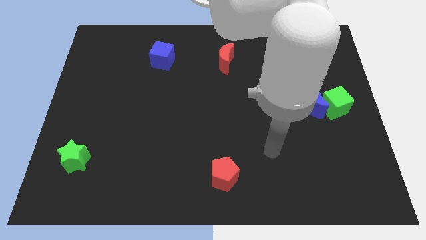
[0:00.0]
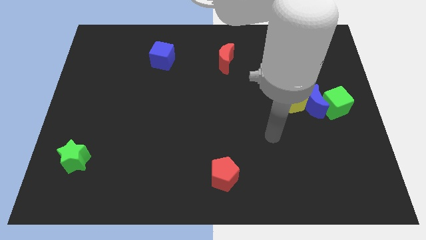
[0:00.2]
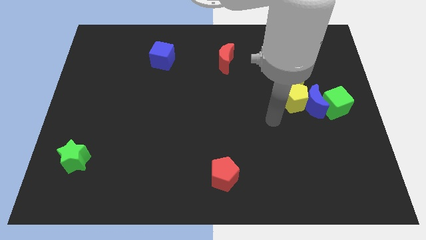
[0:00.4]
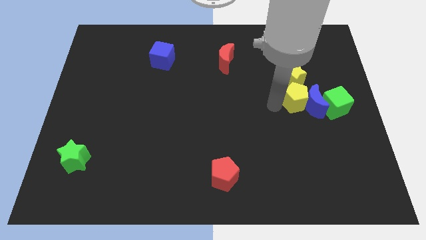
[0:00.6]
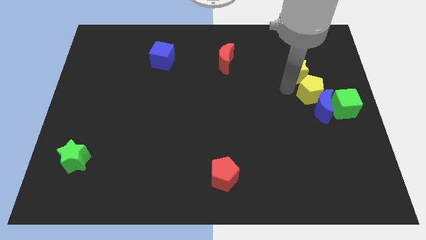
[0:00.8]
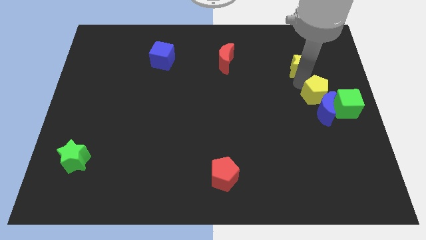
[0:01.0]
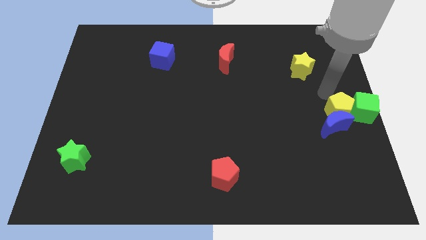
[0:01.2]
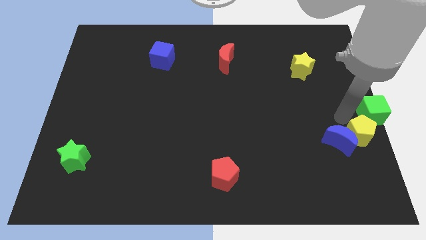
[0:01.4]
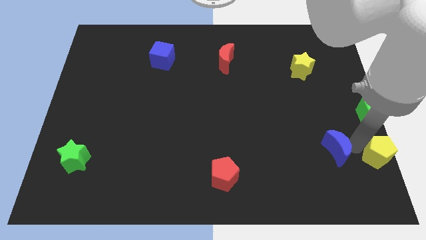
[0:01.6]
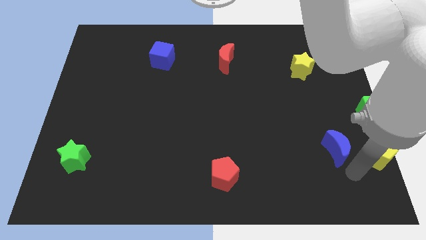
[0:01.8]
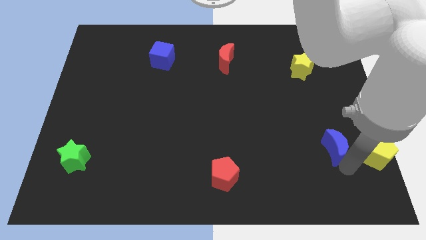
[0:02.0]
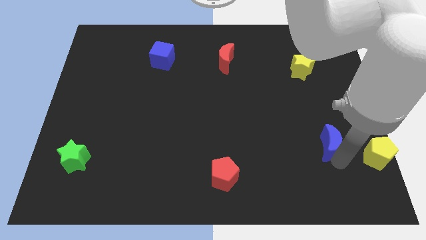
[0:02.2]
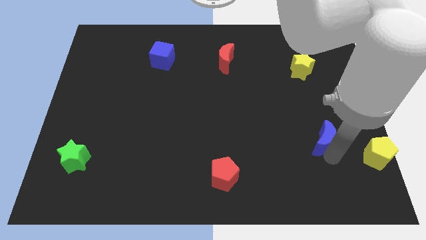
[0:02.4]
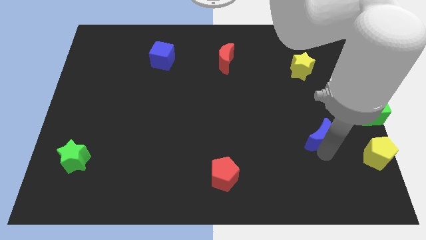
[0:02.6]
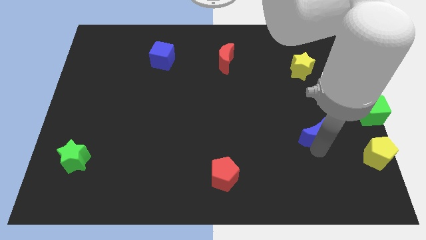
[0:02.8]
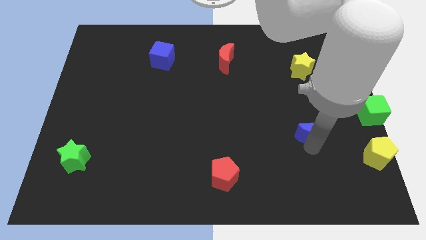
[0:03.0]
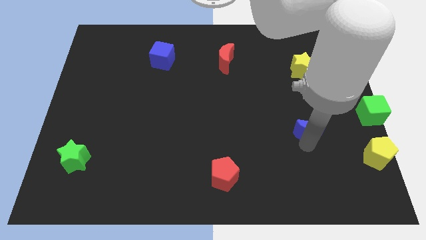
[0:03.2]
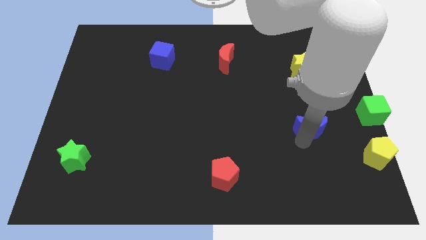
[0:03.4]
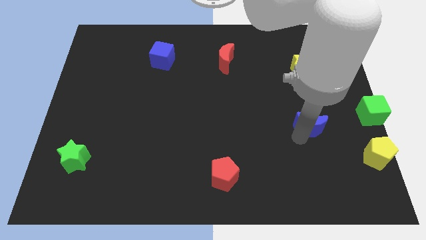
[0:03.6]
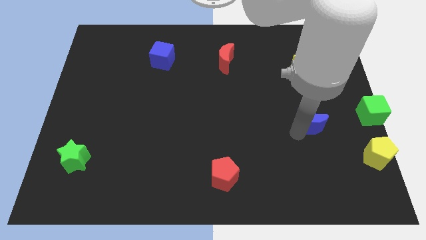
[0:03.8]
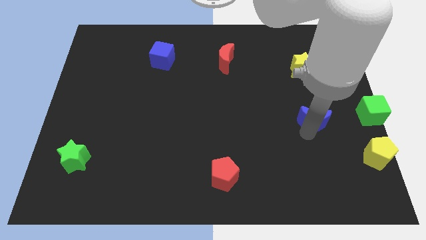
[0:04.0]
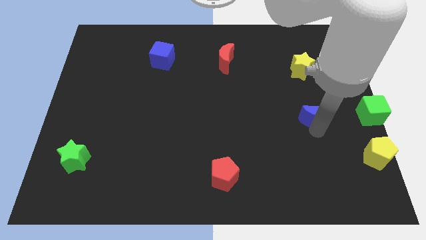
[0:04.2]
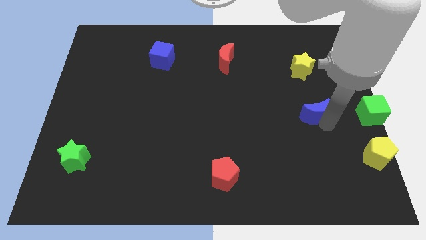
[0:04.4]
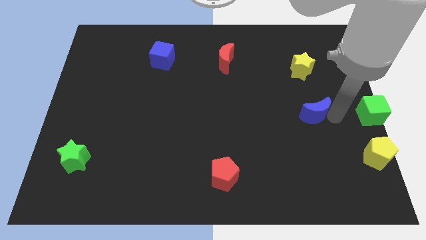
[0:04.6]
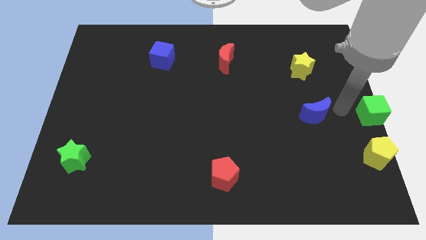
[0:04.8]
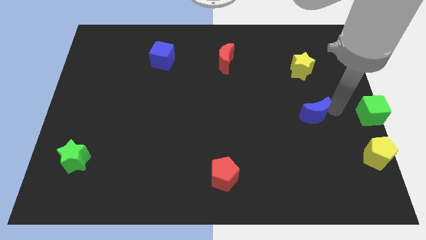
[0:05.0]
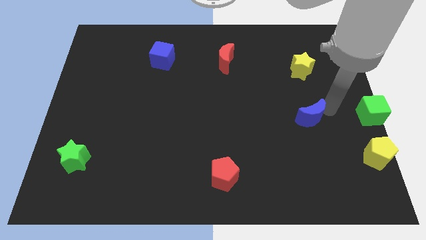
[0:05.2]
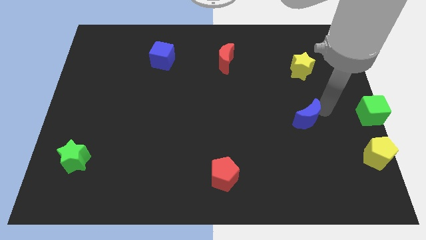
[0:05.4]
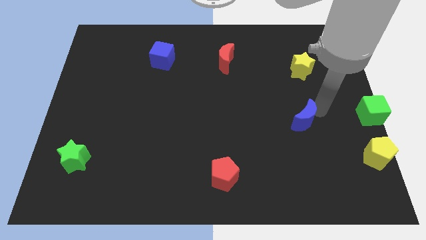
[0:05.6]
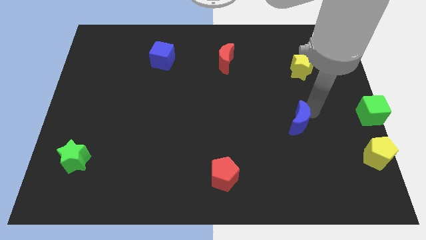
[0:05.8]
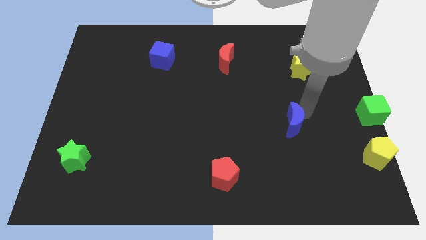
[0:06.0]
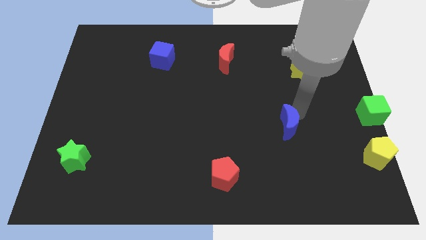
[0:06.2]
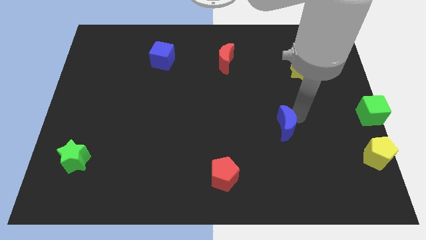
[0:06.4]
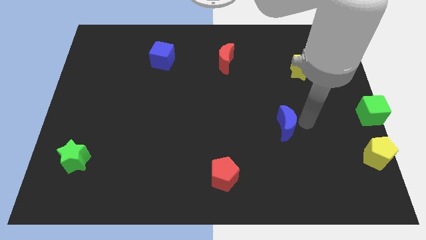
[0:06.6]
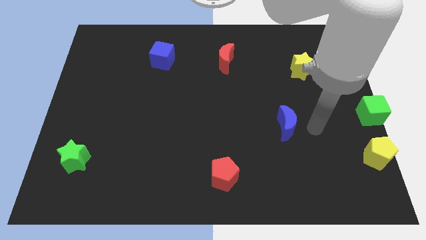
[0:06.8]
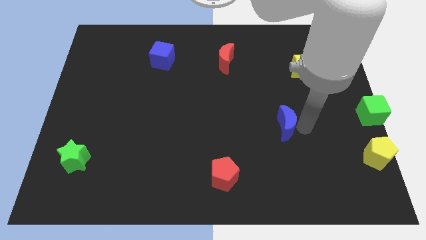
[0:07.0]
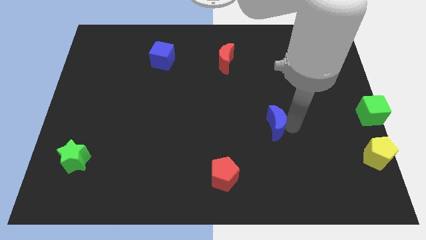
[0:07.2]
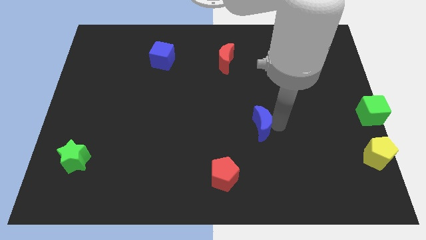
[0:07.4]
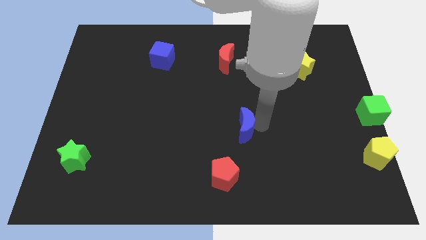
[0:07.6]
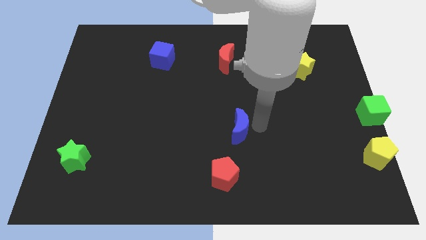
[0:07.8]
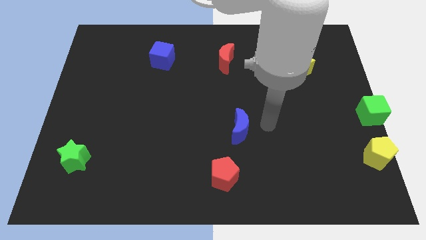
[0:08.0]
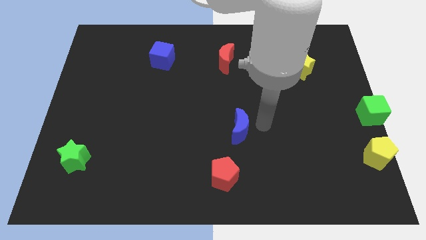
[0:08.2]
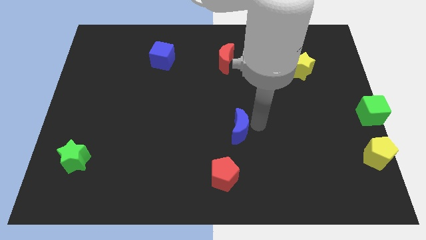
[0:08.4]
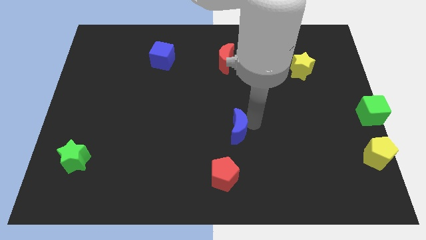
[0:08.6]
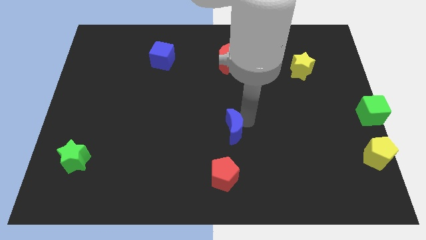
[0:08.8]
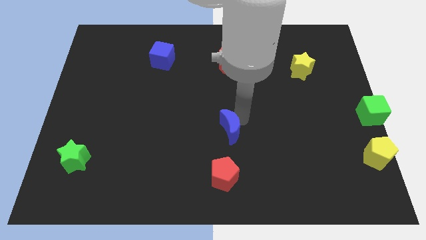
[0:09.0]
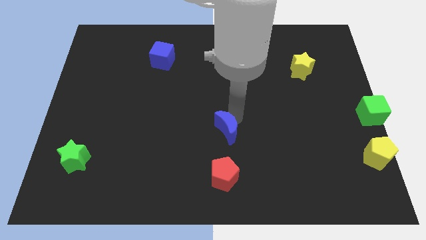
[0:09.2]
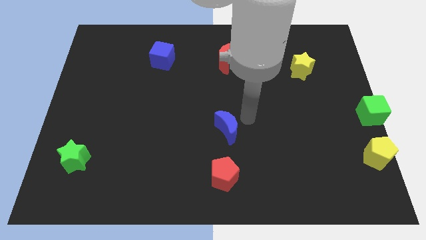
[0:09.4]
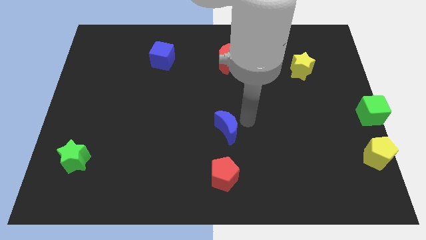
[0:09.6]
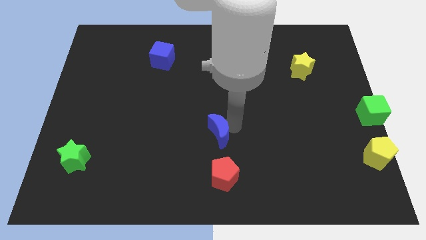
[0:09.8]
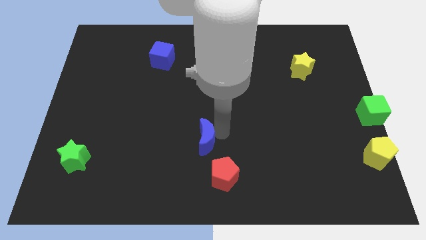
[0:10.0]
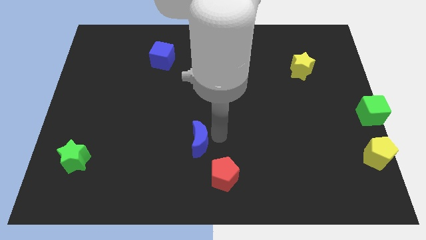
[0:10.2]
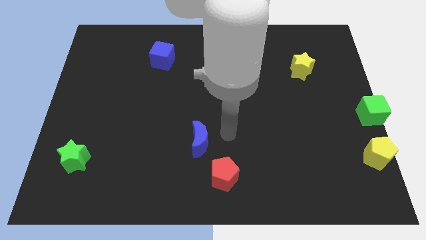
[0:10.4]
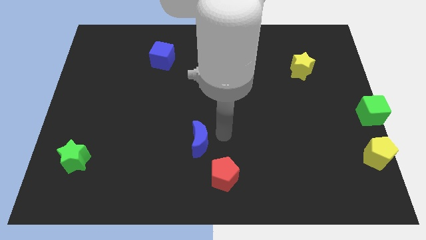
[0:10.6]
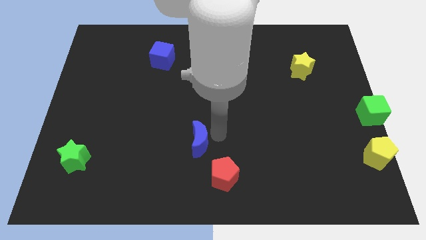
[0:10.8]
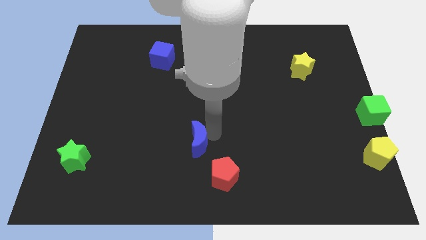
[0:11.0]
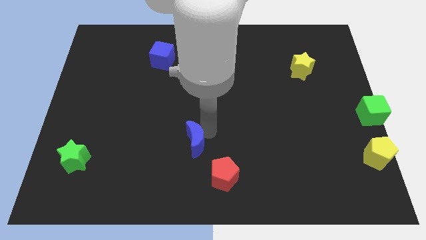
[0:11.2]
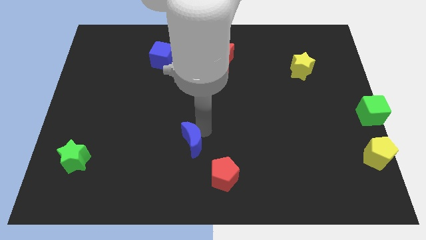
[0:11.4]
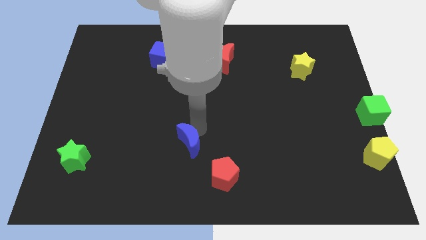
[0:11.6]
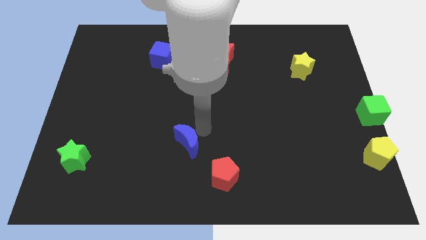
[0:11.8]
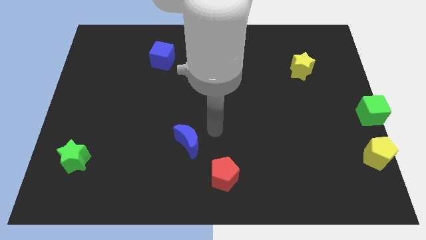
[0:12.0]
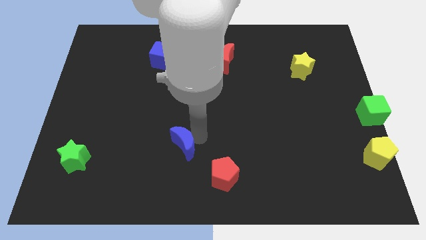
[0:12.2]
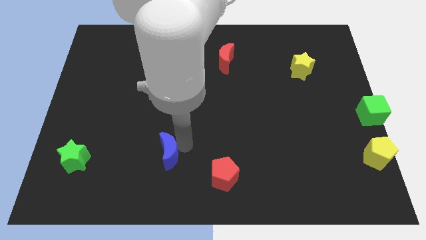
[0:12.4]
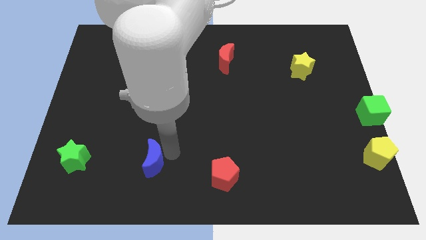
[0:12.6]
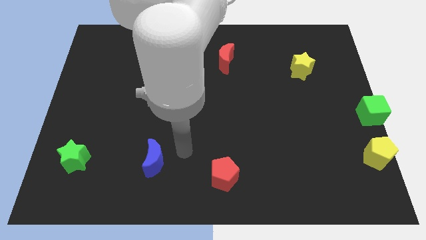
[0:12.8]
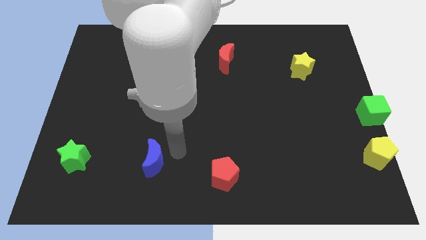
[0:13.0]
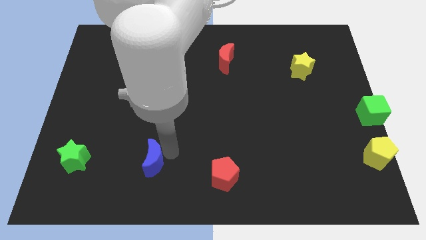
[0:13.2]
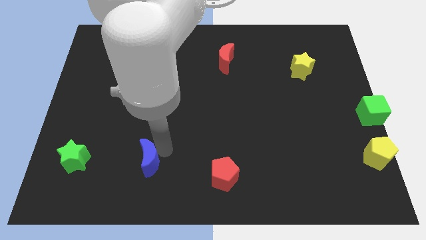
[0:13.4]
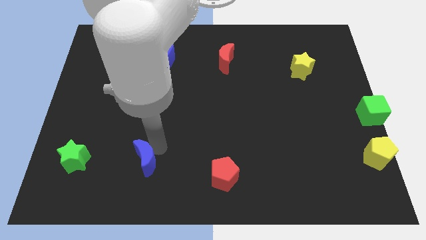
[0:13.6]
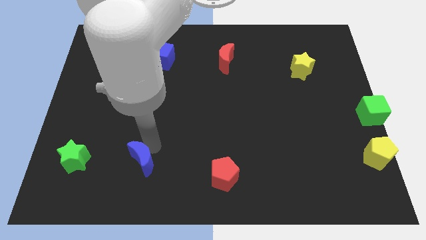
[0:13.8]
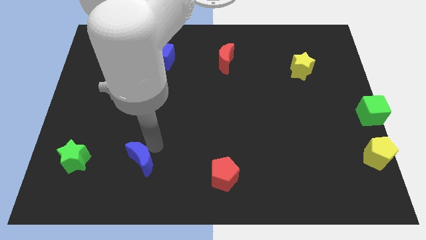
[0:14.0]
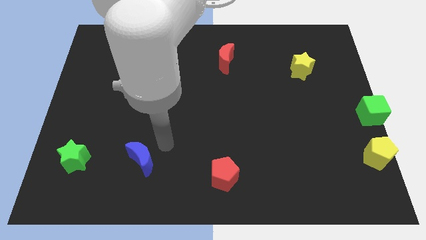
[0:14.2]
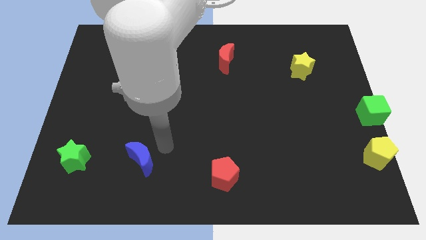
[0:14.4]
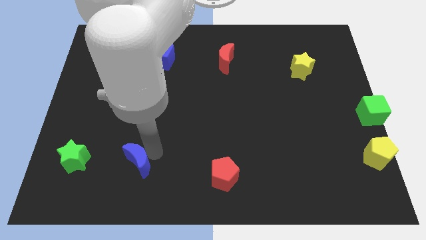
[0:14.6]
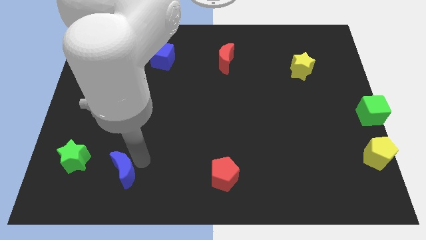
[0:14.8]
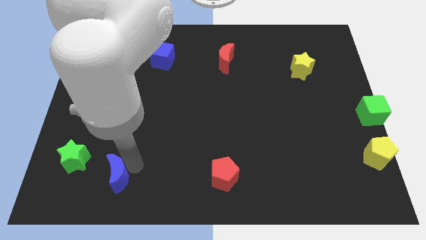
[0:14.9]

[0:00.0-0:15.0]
move the blue moon diagonally down and to the right of the green star
